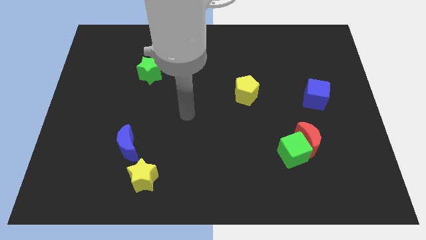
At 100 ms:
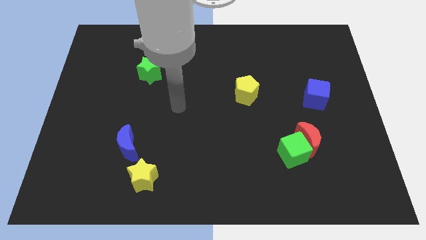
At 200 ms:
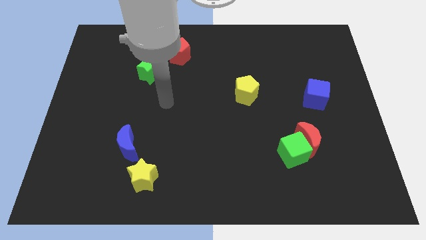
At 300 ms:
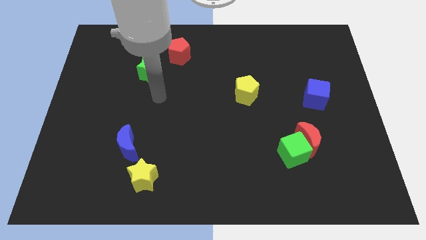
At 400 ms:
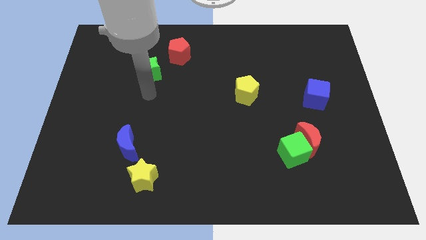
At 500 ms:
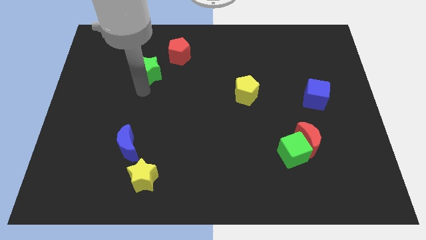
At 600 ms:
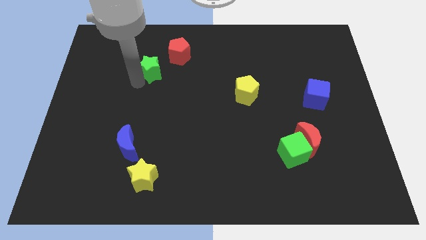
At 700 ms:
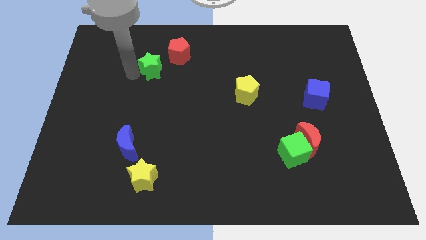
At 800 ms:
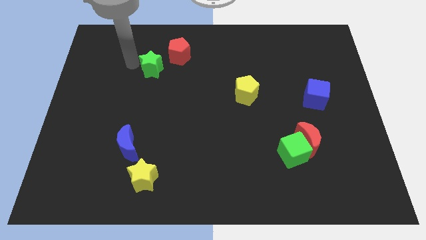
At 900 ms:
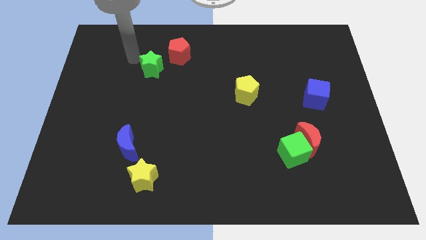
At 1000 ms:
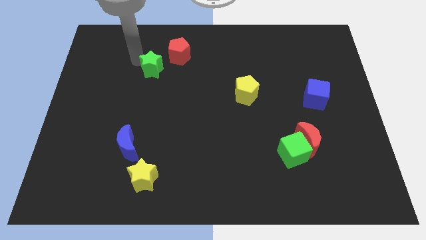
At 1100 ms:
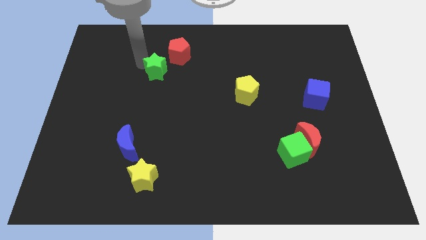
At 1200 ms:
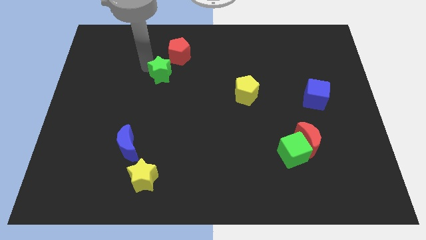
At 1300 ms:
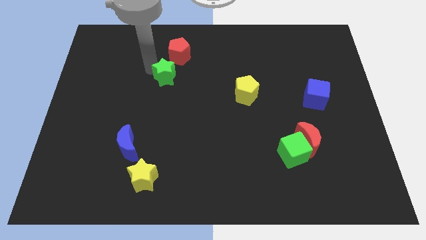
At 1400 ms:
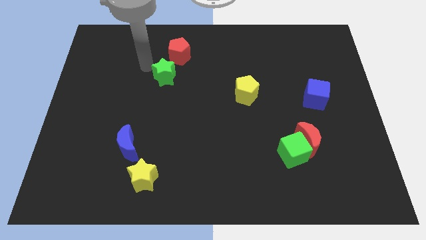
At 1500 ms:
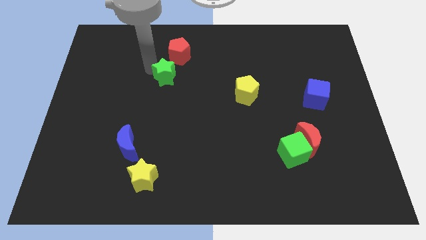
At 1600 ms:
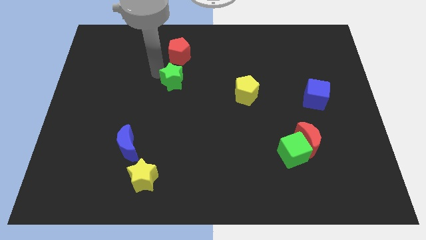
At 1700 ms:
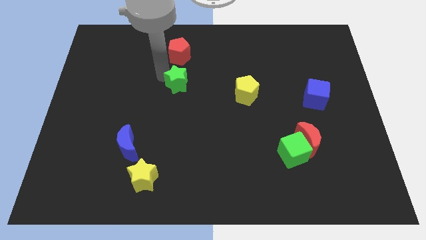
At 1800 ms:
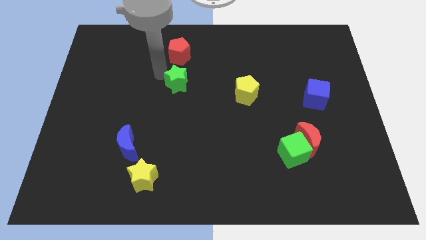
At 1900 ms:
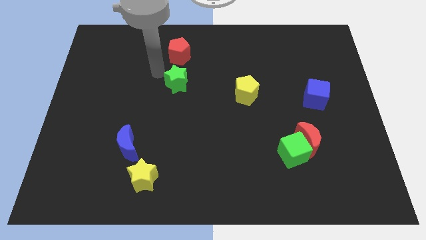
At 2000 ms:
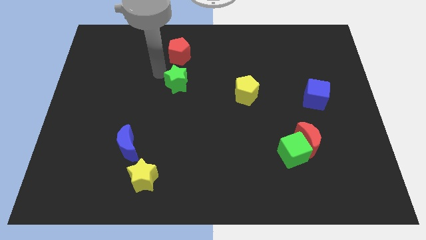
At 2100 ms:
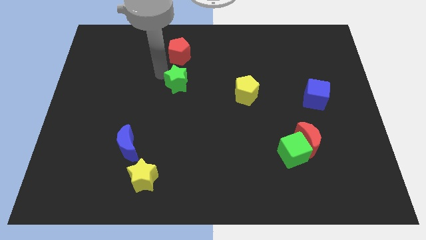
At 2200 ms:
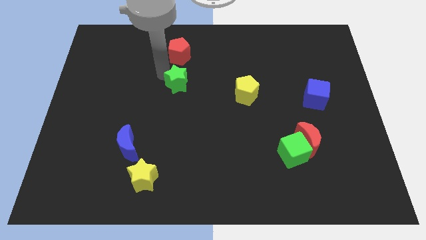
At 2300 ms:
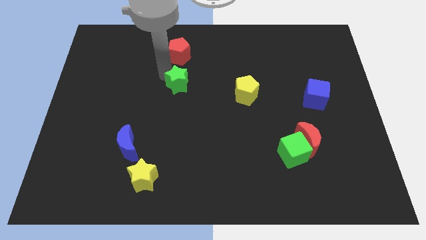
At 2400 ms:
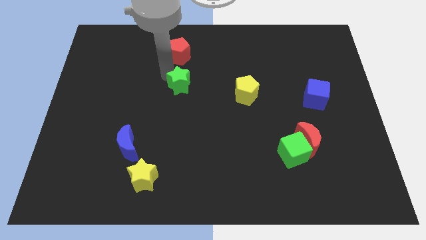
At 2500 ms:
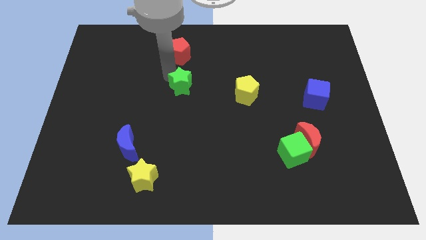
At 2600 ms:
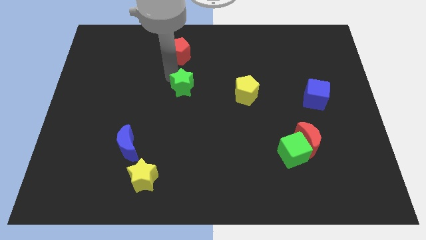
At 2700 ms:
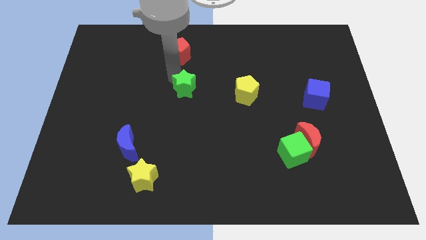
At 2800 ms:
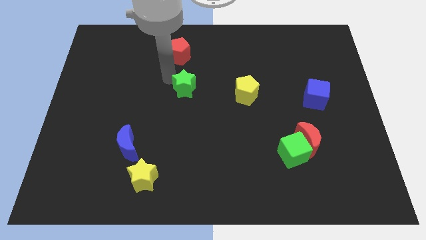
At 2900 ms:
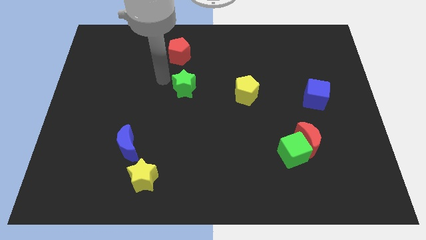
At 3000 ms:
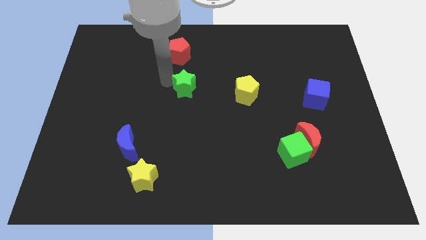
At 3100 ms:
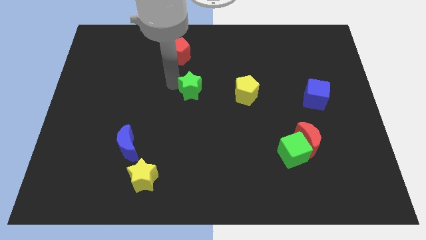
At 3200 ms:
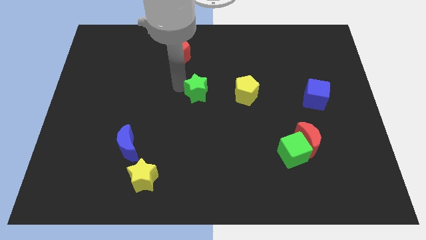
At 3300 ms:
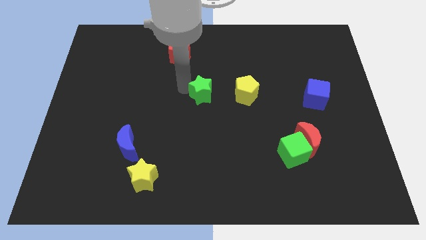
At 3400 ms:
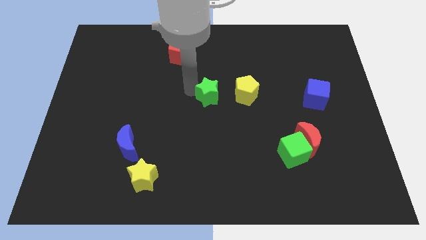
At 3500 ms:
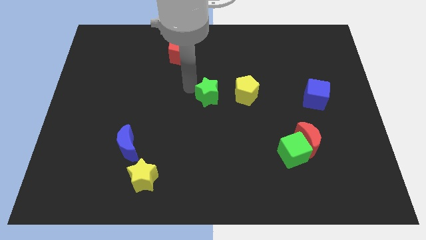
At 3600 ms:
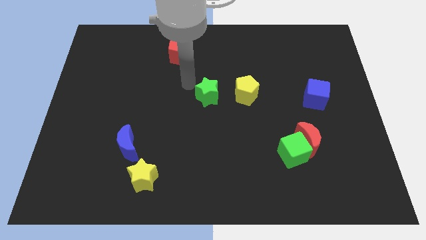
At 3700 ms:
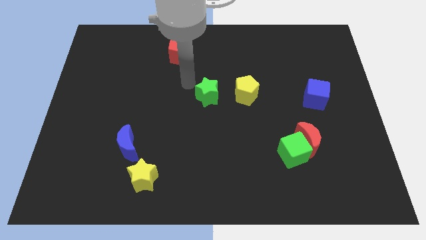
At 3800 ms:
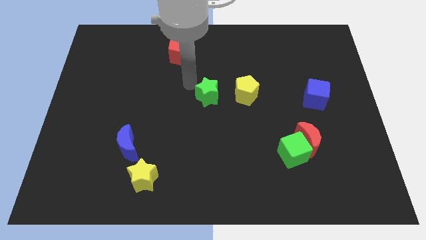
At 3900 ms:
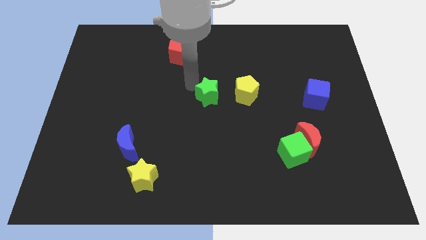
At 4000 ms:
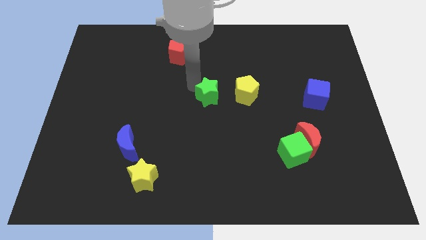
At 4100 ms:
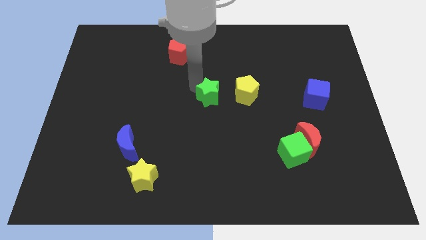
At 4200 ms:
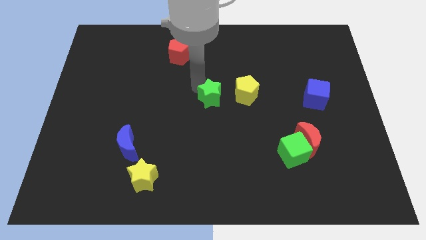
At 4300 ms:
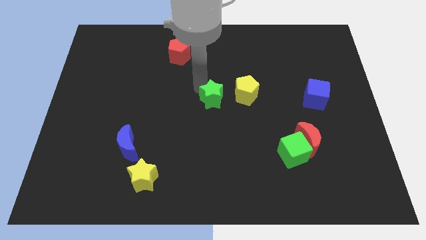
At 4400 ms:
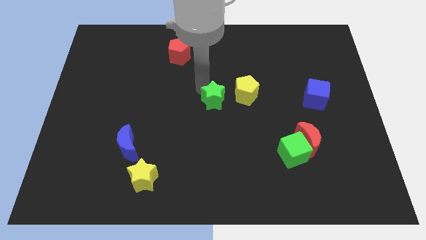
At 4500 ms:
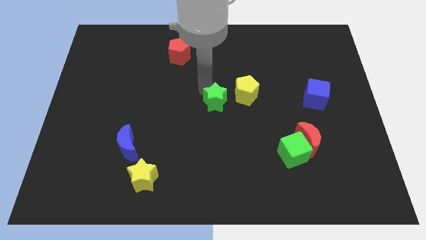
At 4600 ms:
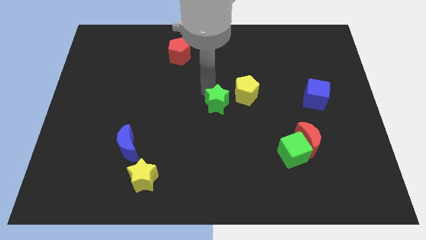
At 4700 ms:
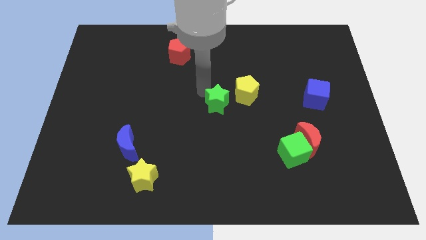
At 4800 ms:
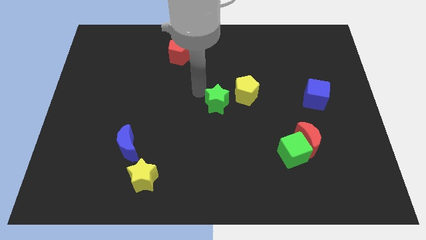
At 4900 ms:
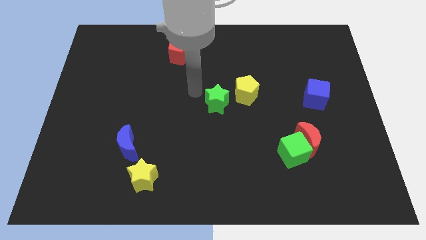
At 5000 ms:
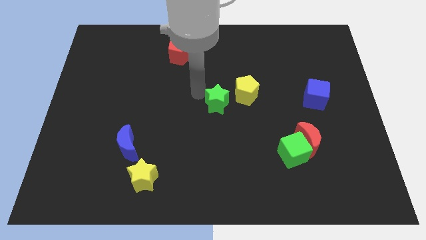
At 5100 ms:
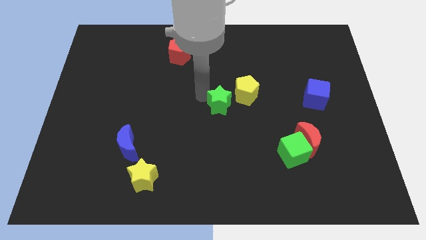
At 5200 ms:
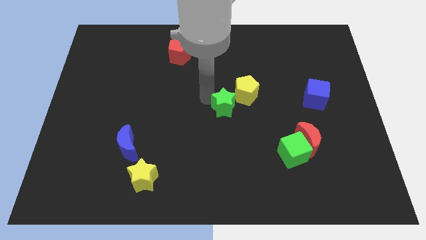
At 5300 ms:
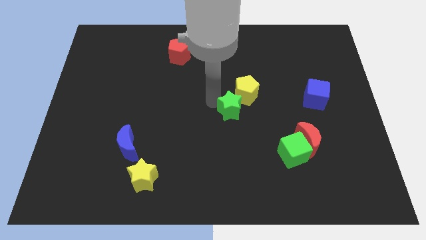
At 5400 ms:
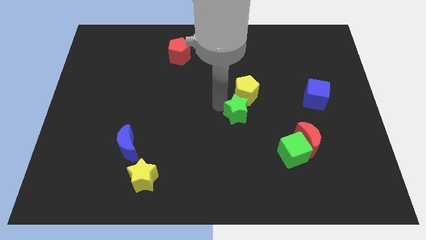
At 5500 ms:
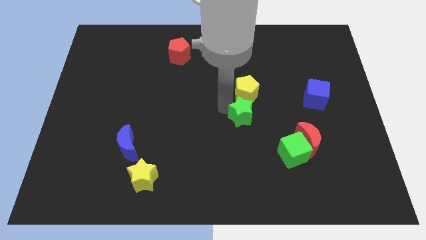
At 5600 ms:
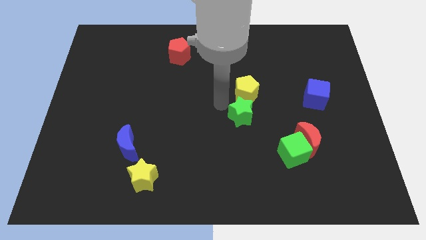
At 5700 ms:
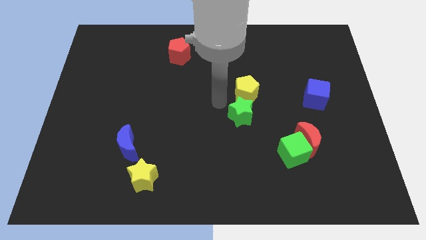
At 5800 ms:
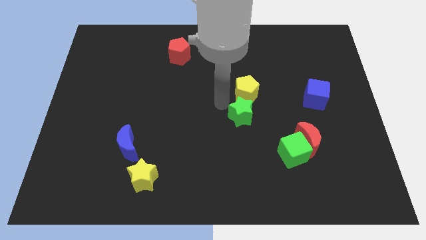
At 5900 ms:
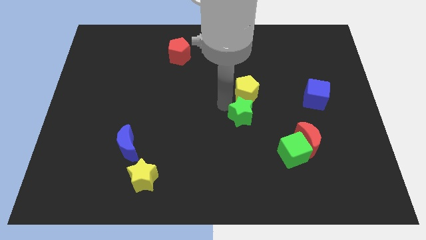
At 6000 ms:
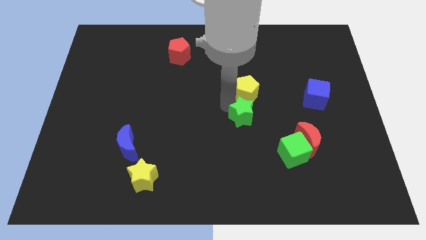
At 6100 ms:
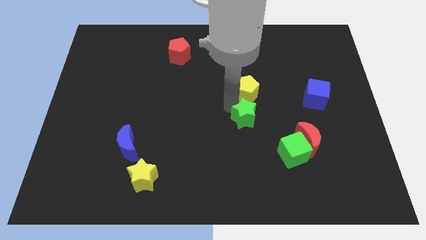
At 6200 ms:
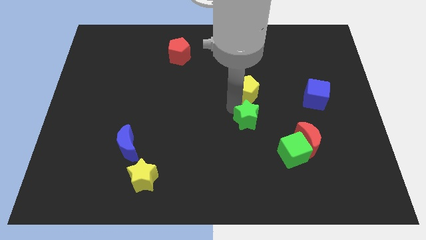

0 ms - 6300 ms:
push the green star diagonally up and to the left of the green cube

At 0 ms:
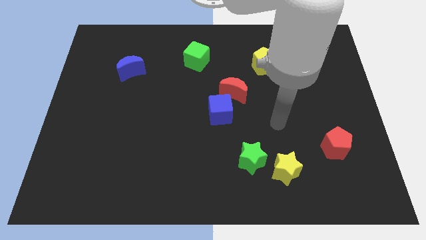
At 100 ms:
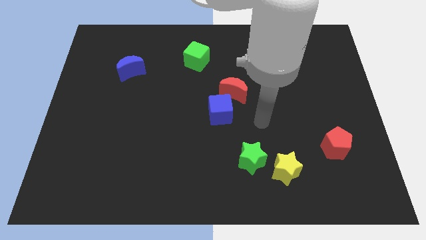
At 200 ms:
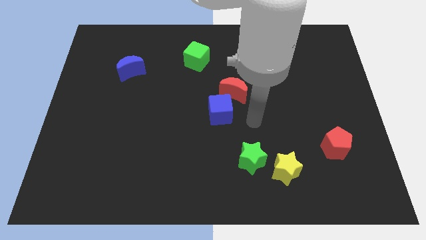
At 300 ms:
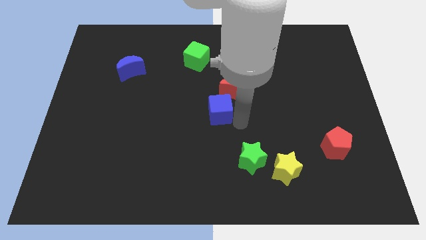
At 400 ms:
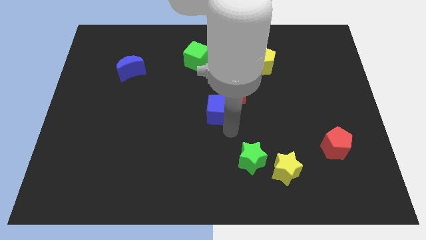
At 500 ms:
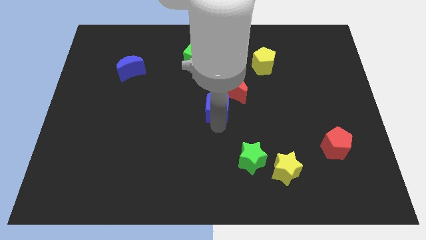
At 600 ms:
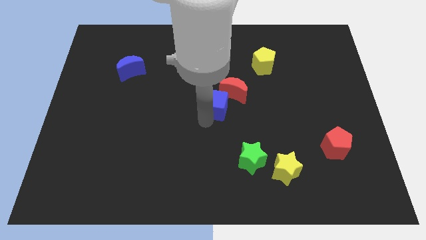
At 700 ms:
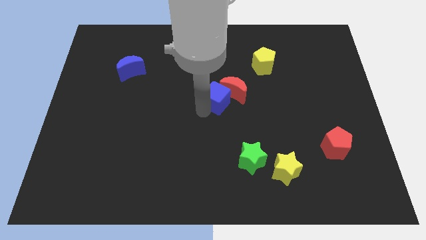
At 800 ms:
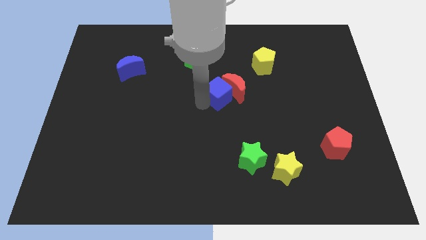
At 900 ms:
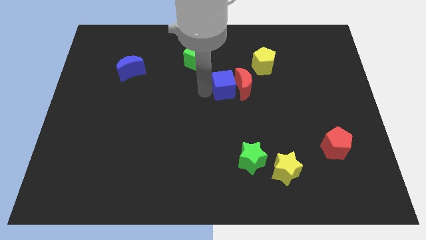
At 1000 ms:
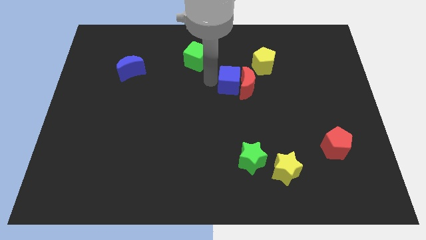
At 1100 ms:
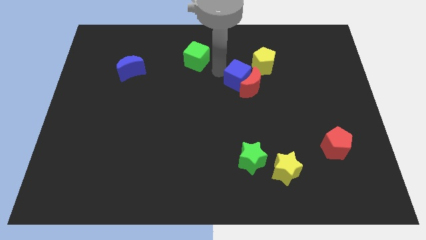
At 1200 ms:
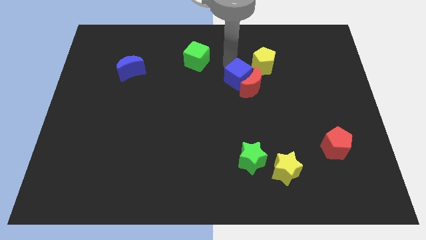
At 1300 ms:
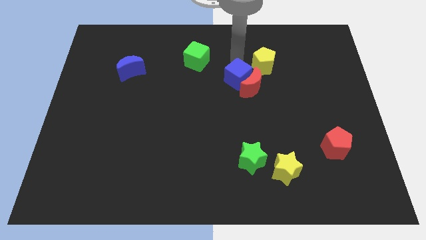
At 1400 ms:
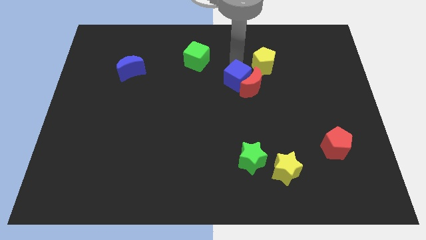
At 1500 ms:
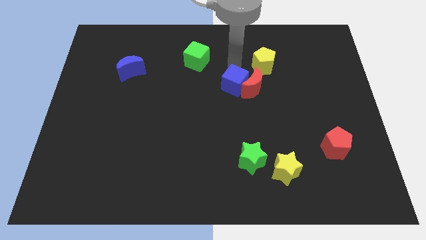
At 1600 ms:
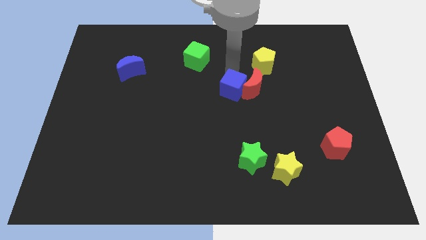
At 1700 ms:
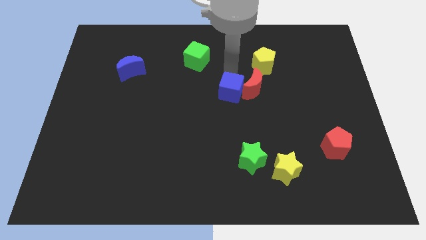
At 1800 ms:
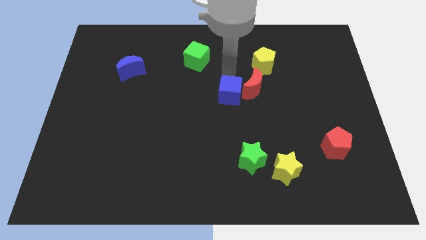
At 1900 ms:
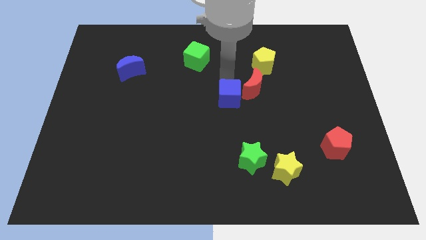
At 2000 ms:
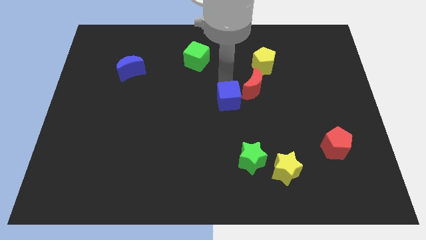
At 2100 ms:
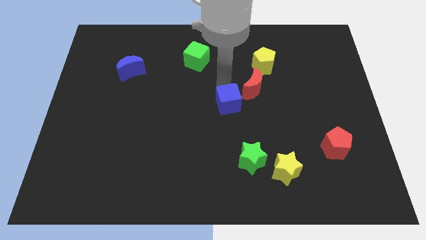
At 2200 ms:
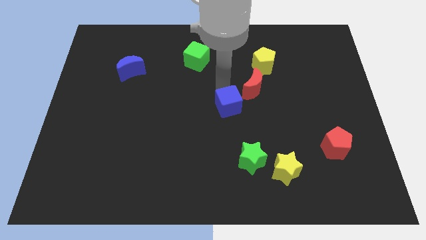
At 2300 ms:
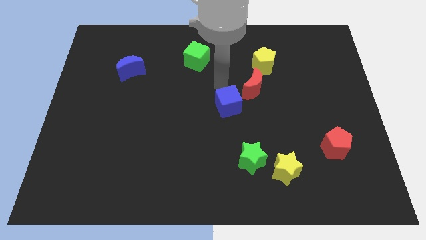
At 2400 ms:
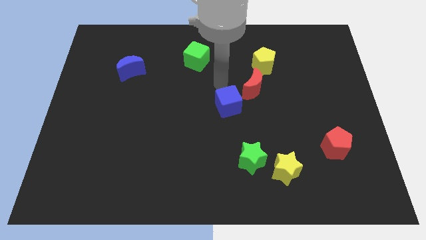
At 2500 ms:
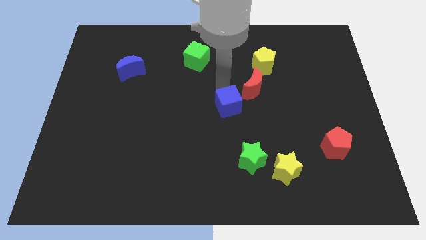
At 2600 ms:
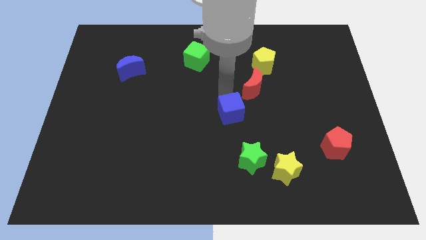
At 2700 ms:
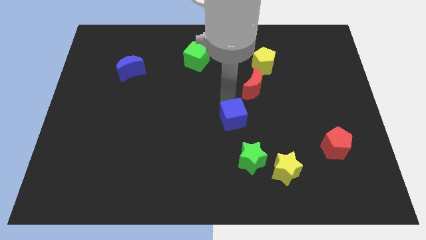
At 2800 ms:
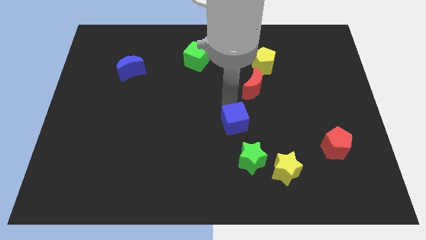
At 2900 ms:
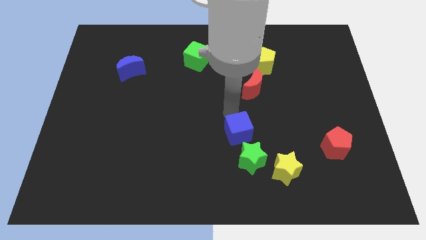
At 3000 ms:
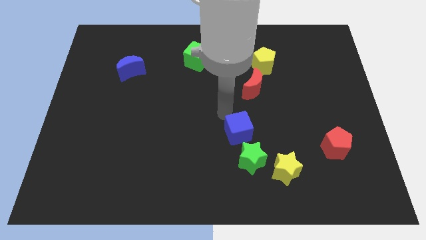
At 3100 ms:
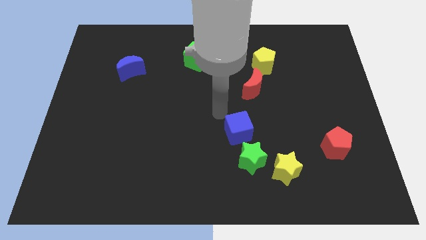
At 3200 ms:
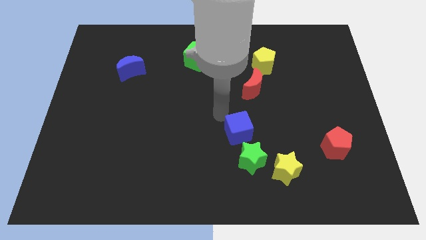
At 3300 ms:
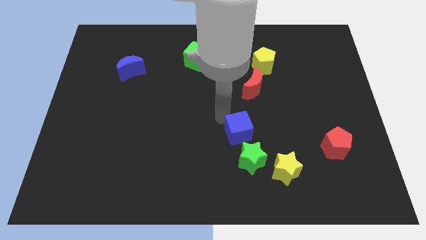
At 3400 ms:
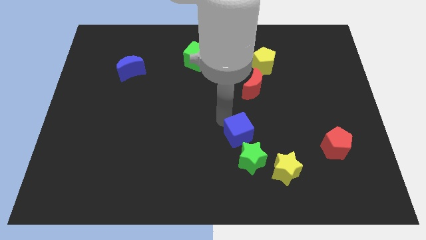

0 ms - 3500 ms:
push the blue cube to the top left of the yellow star
